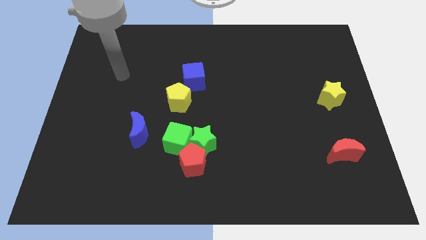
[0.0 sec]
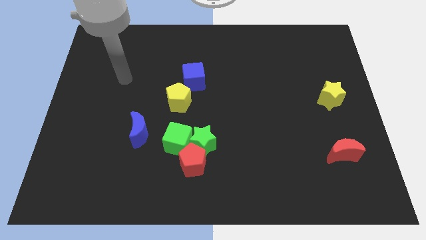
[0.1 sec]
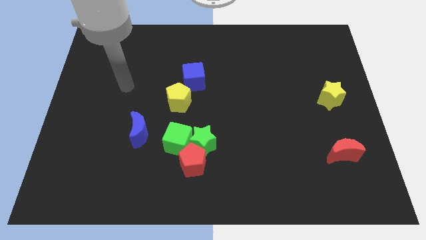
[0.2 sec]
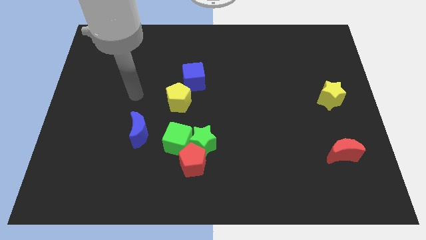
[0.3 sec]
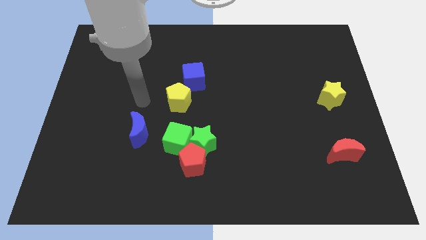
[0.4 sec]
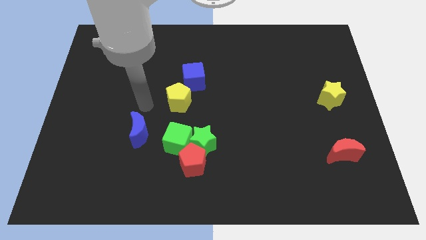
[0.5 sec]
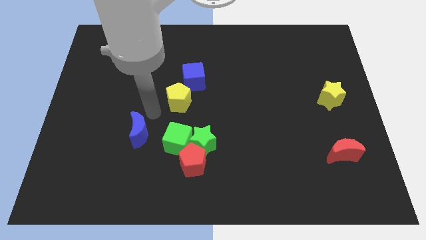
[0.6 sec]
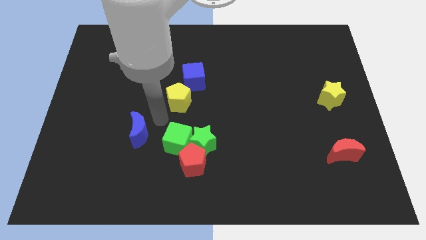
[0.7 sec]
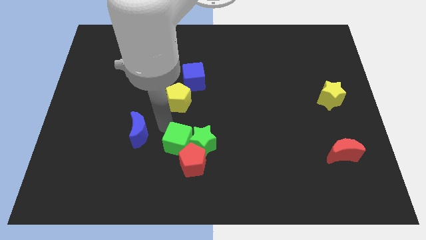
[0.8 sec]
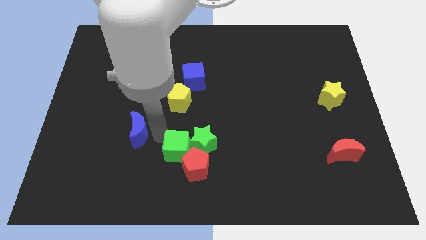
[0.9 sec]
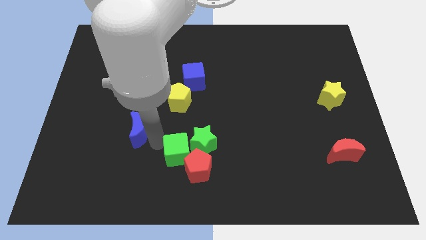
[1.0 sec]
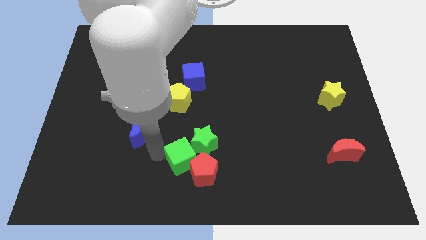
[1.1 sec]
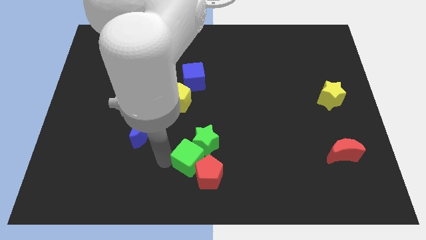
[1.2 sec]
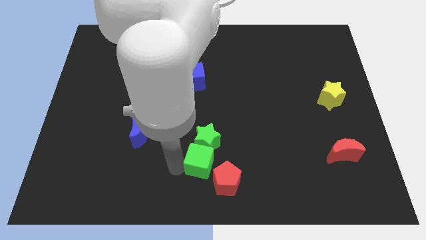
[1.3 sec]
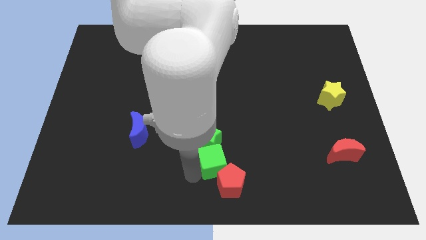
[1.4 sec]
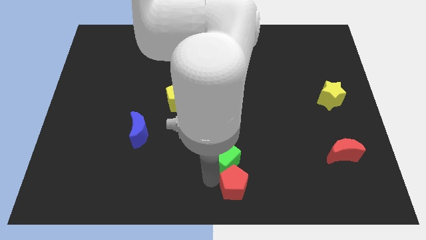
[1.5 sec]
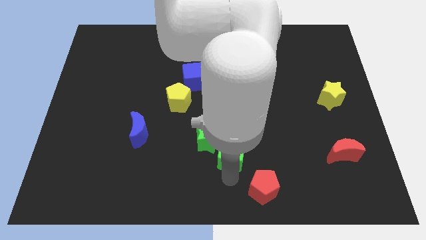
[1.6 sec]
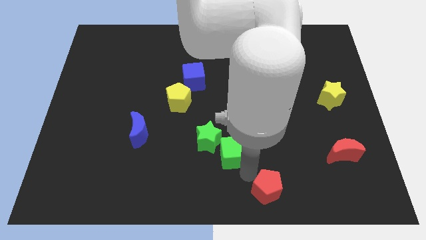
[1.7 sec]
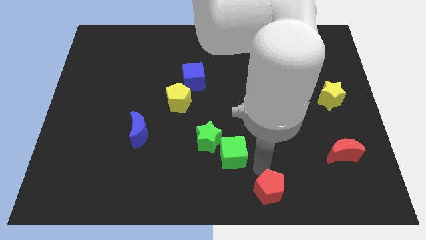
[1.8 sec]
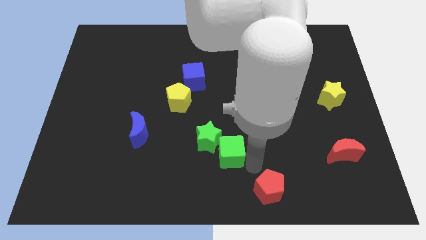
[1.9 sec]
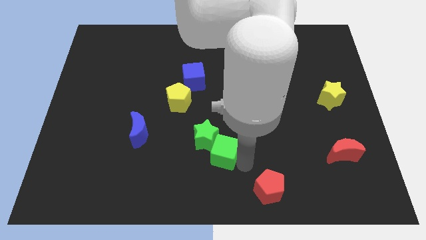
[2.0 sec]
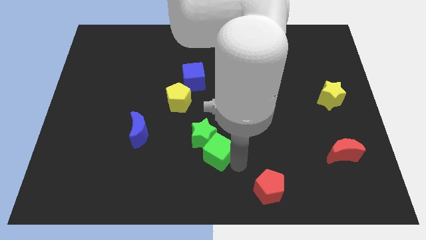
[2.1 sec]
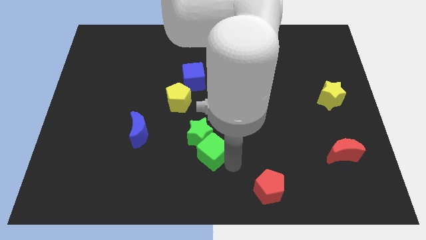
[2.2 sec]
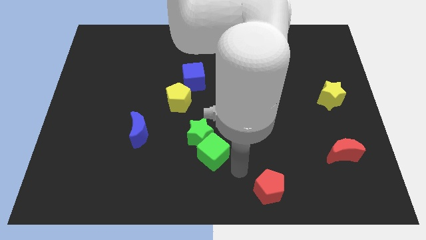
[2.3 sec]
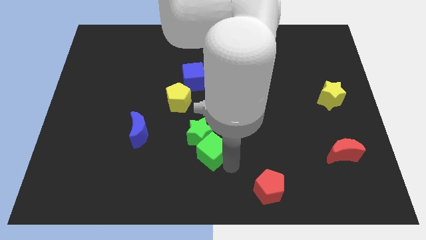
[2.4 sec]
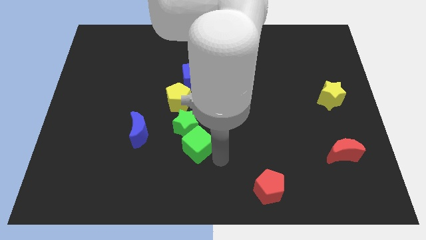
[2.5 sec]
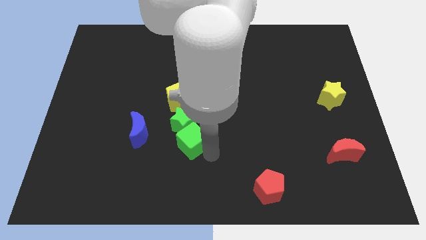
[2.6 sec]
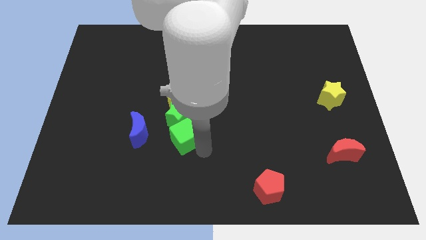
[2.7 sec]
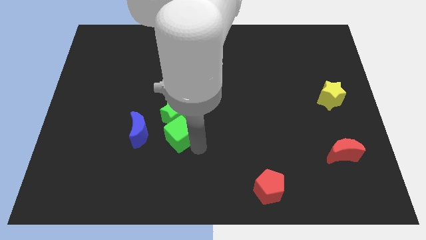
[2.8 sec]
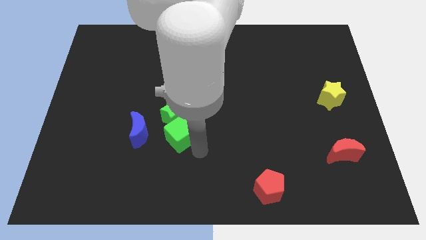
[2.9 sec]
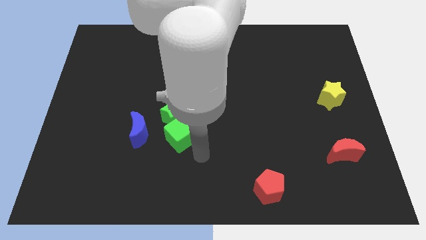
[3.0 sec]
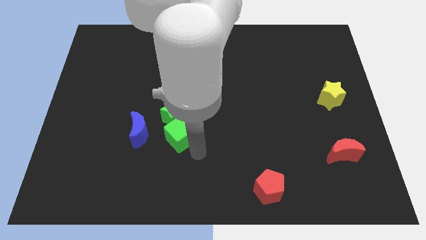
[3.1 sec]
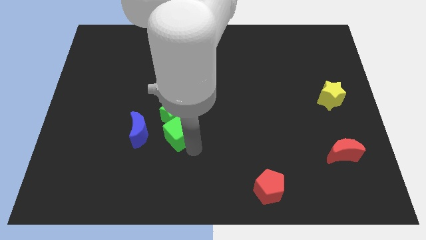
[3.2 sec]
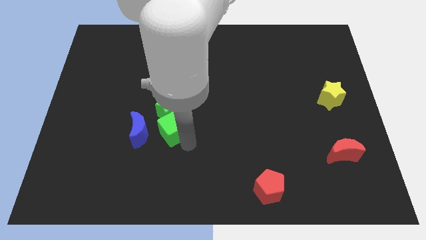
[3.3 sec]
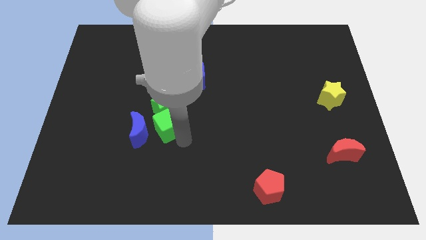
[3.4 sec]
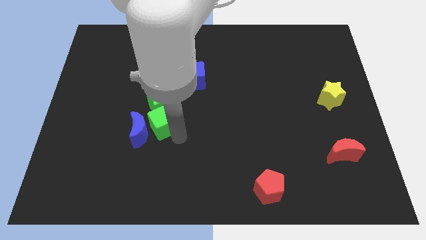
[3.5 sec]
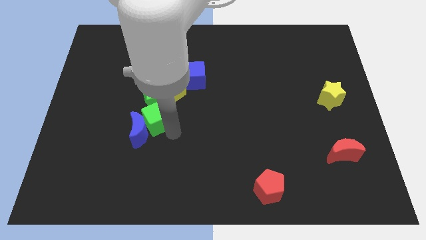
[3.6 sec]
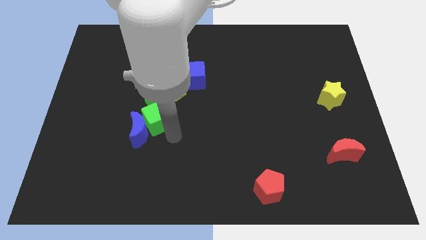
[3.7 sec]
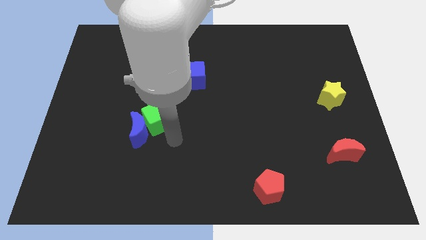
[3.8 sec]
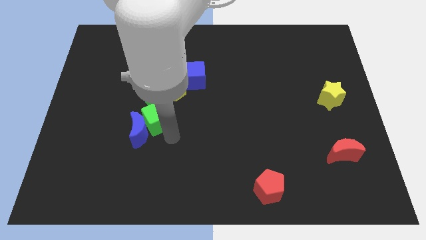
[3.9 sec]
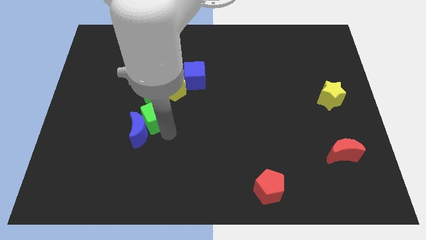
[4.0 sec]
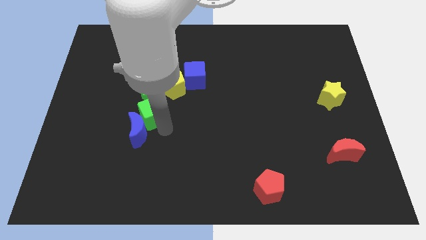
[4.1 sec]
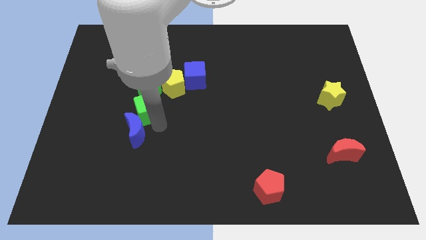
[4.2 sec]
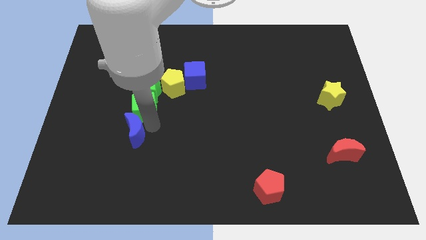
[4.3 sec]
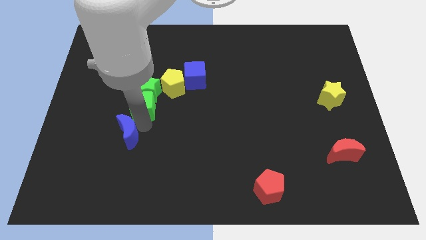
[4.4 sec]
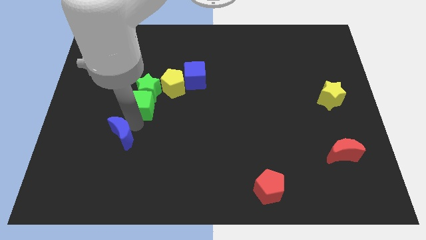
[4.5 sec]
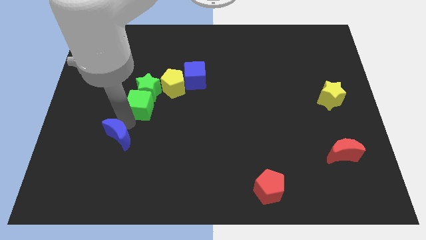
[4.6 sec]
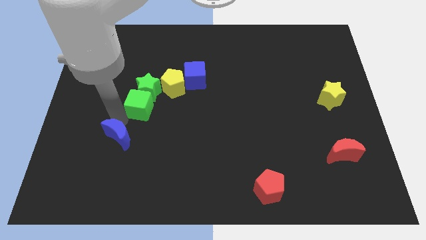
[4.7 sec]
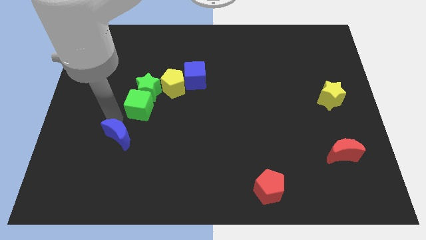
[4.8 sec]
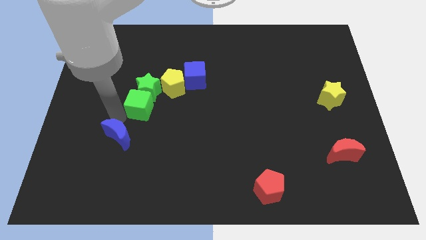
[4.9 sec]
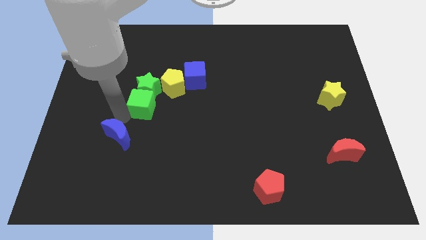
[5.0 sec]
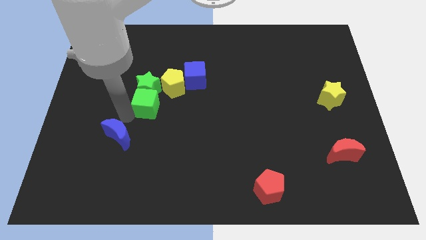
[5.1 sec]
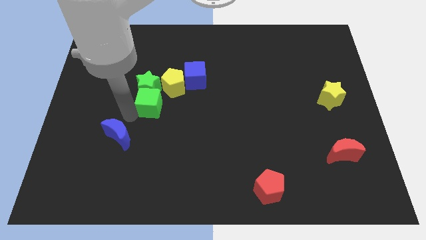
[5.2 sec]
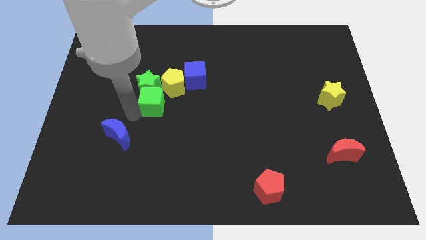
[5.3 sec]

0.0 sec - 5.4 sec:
slide the green cube diagonally down and to the left of the blue cube

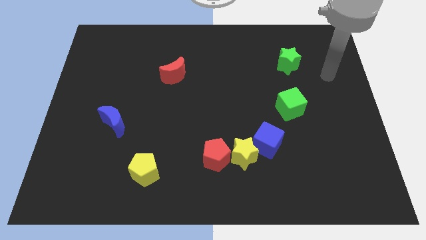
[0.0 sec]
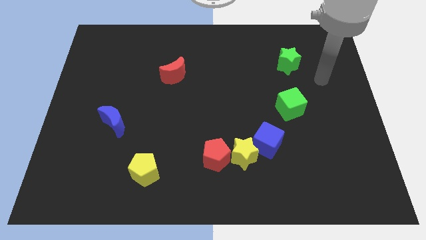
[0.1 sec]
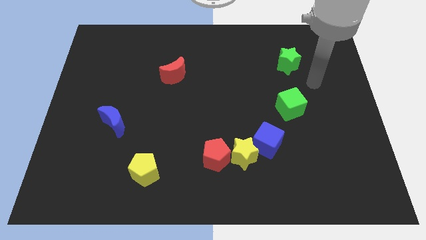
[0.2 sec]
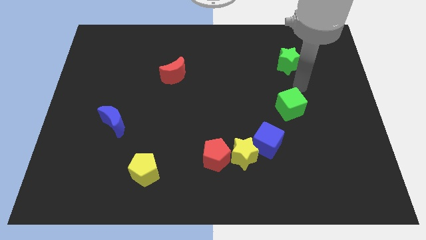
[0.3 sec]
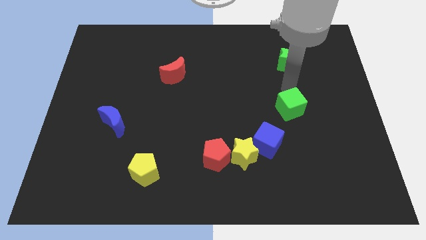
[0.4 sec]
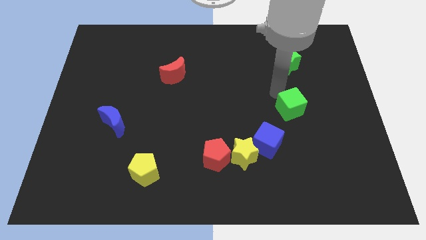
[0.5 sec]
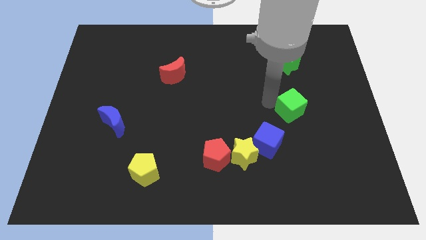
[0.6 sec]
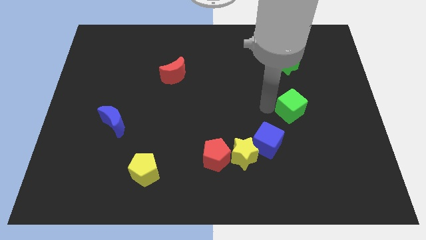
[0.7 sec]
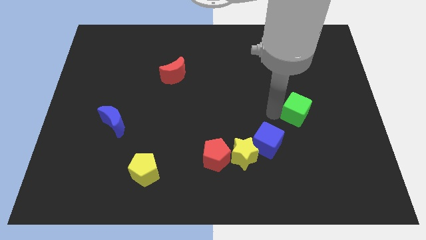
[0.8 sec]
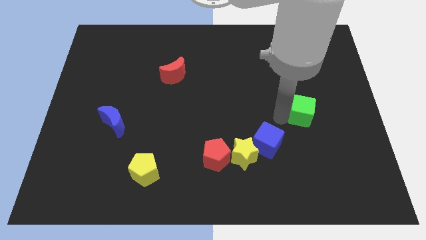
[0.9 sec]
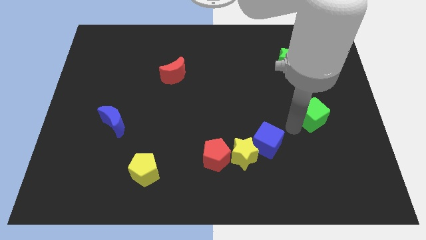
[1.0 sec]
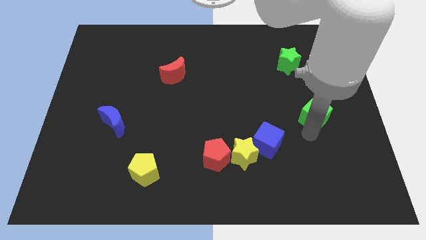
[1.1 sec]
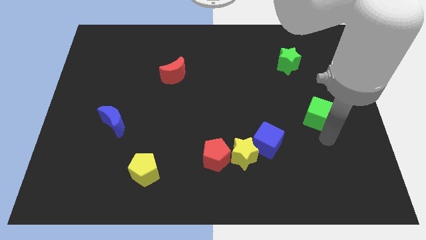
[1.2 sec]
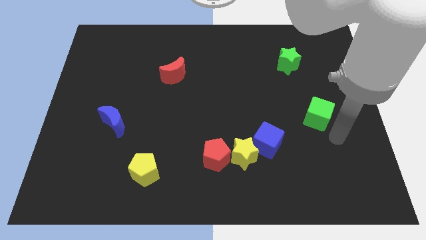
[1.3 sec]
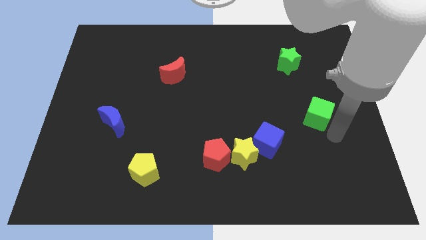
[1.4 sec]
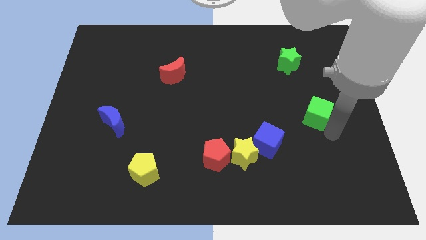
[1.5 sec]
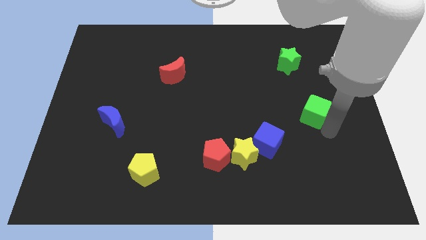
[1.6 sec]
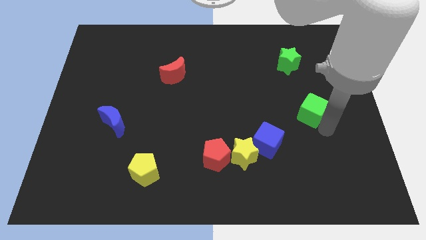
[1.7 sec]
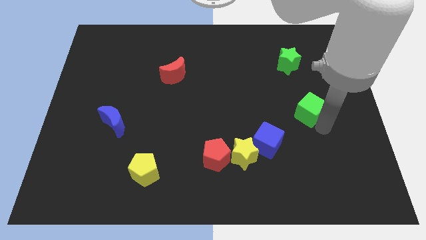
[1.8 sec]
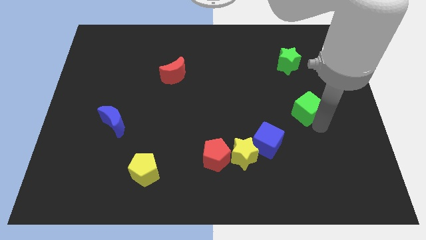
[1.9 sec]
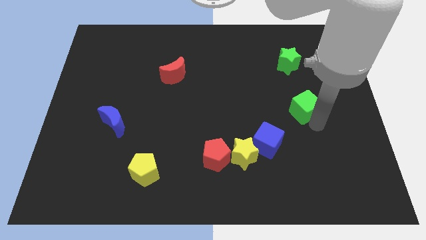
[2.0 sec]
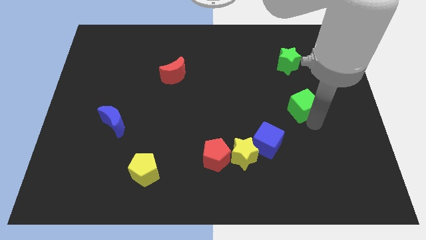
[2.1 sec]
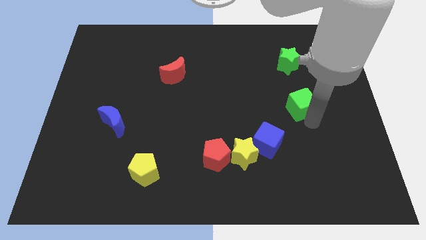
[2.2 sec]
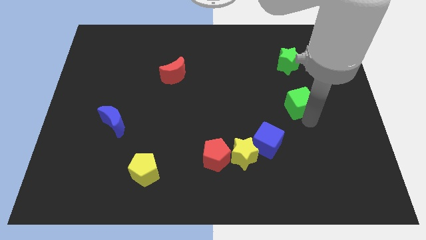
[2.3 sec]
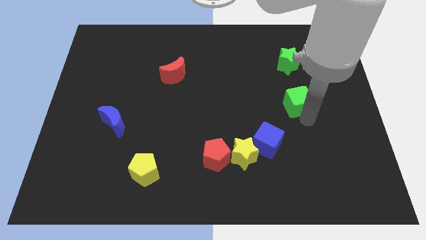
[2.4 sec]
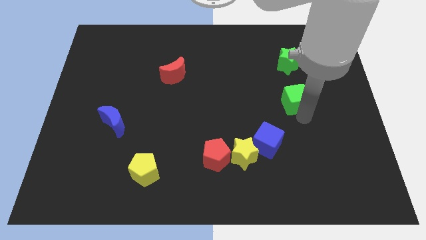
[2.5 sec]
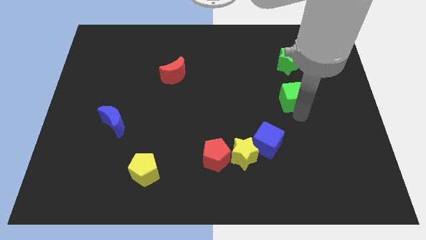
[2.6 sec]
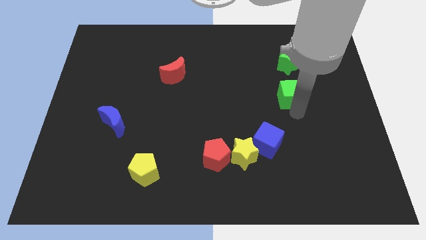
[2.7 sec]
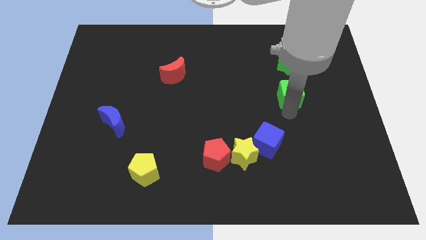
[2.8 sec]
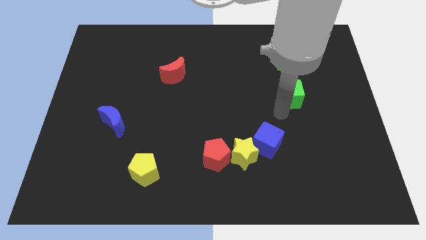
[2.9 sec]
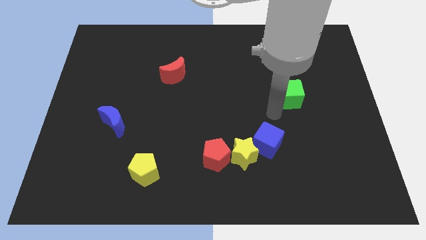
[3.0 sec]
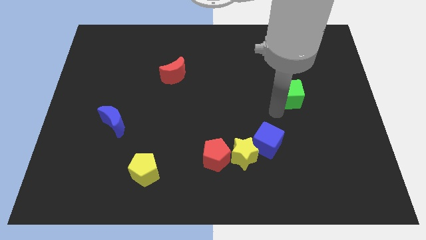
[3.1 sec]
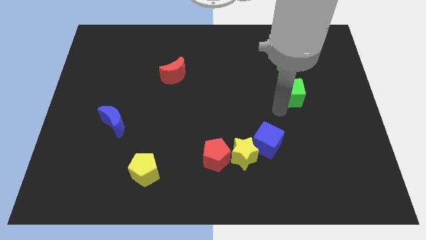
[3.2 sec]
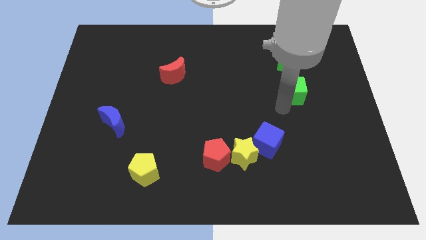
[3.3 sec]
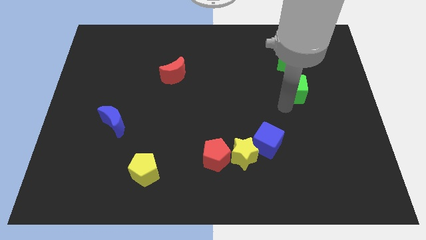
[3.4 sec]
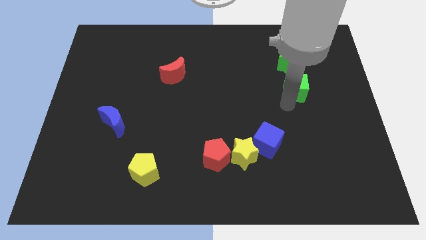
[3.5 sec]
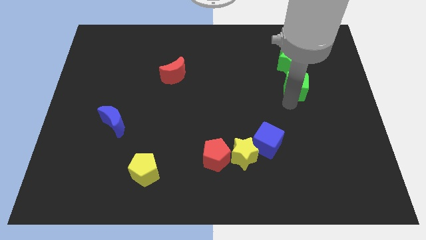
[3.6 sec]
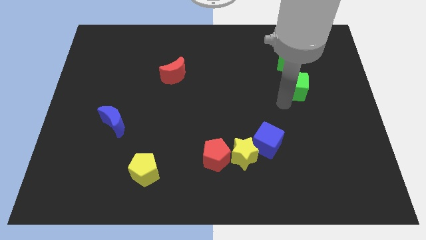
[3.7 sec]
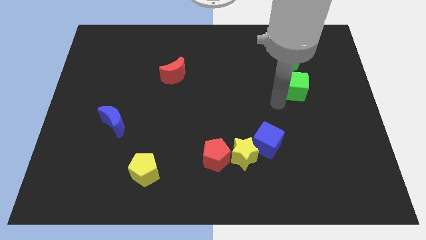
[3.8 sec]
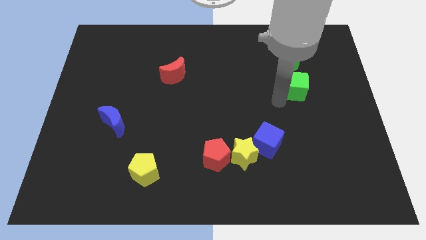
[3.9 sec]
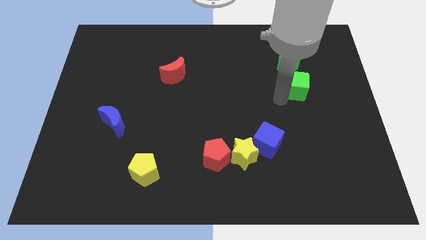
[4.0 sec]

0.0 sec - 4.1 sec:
move the green cube diagonally down and to the right of the green star
